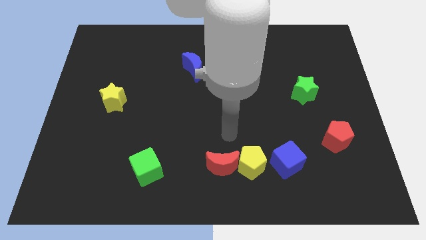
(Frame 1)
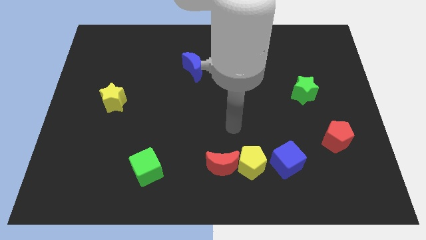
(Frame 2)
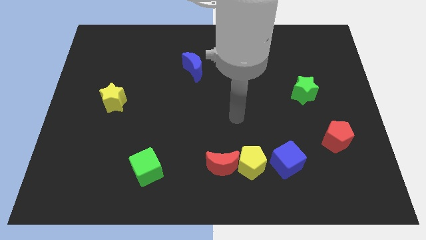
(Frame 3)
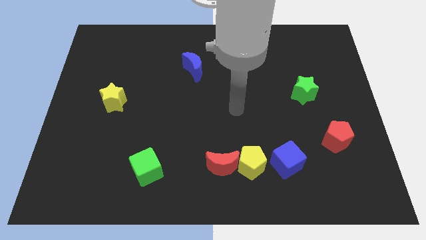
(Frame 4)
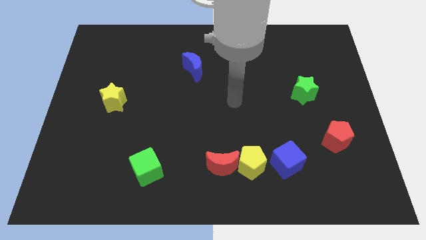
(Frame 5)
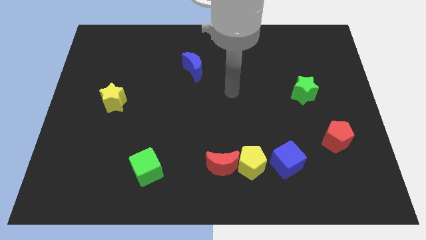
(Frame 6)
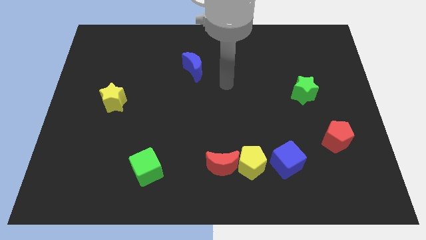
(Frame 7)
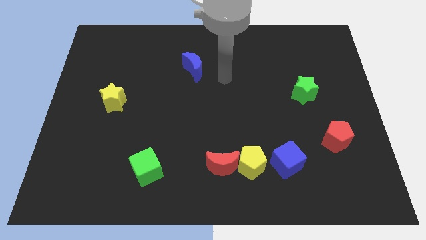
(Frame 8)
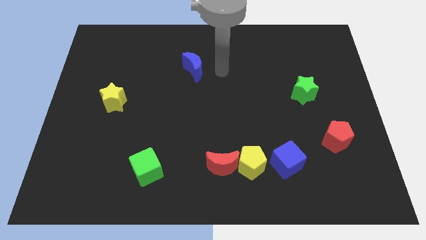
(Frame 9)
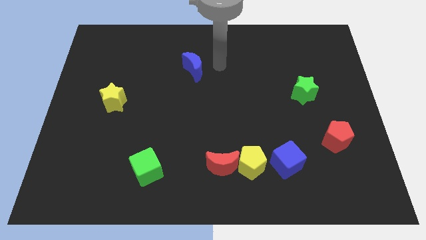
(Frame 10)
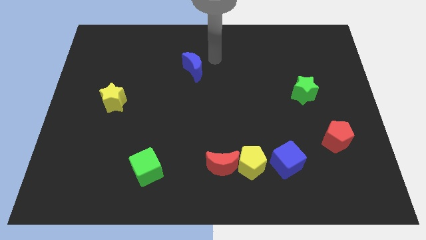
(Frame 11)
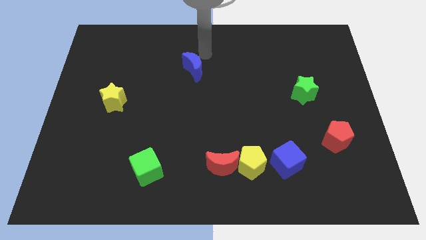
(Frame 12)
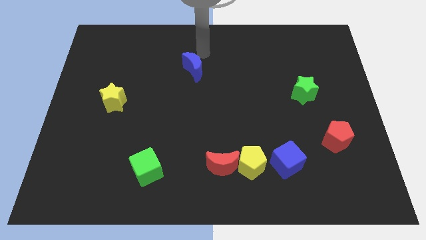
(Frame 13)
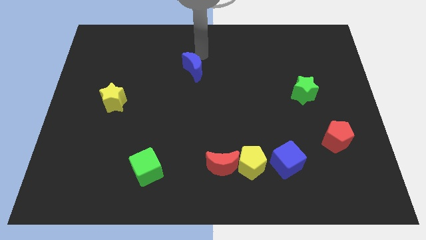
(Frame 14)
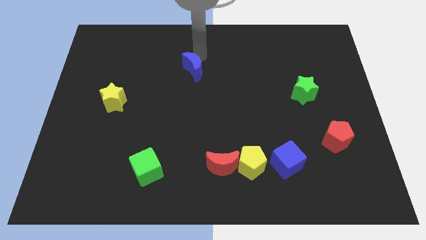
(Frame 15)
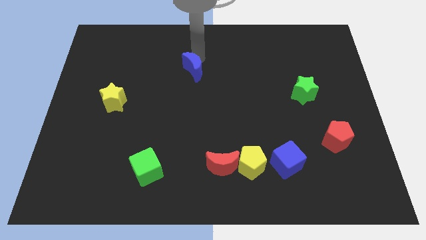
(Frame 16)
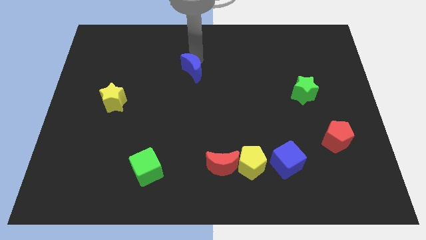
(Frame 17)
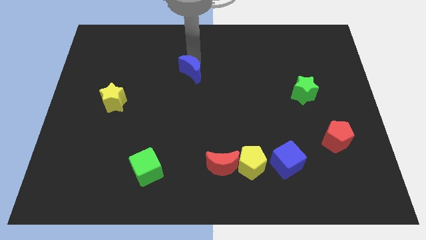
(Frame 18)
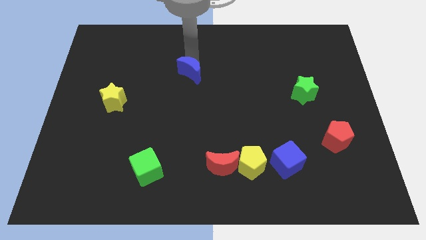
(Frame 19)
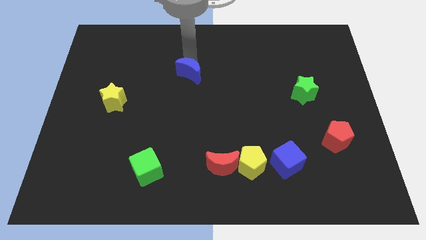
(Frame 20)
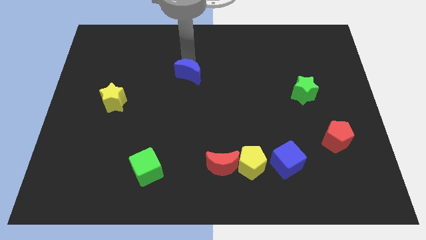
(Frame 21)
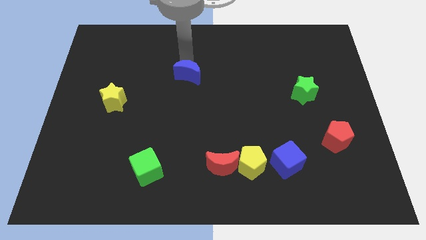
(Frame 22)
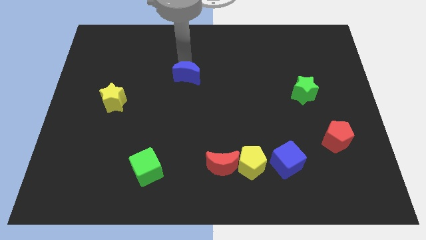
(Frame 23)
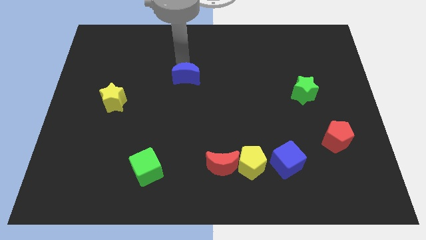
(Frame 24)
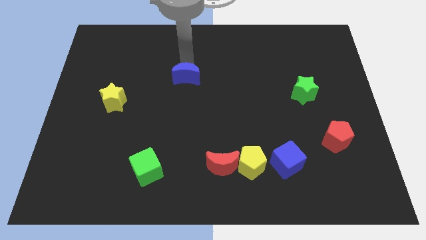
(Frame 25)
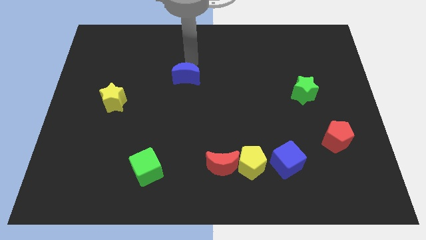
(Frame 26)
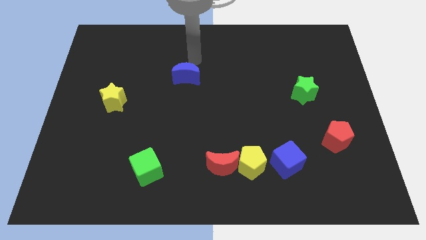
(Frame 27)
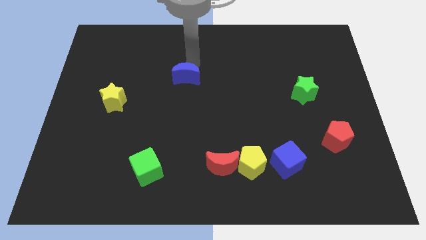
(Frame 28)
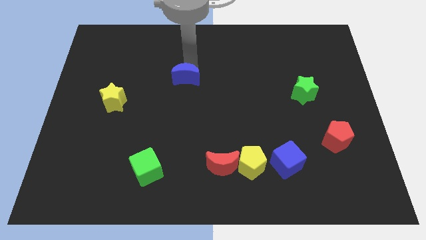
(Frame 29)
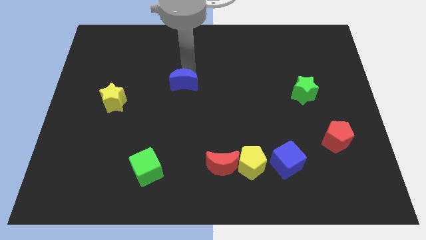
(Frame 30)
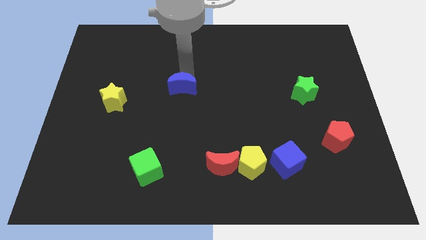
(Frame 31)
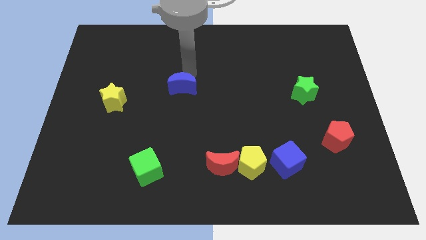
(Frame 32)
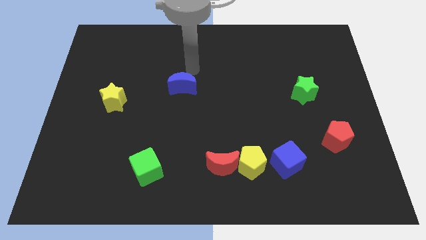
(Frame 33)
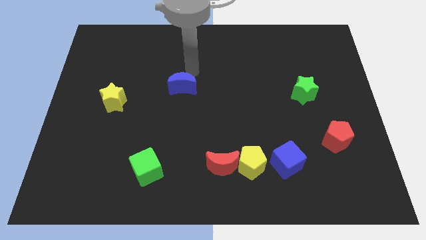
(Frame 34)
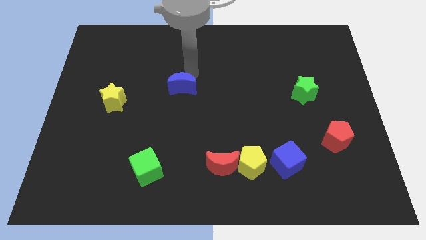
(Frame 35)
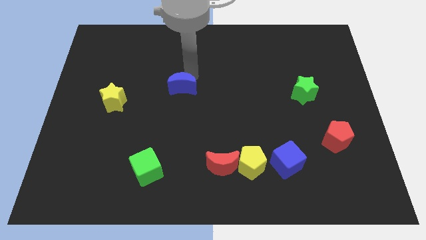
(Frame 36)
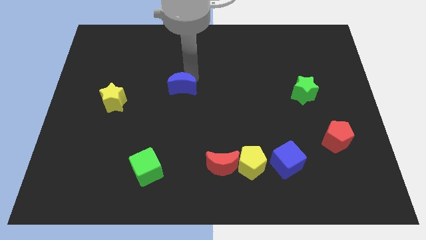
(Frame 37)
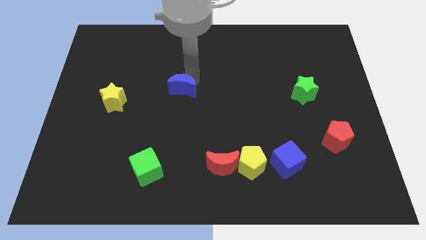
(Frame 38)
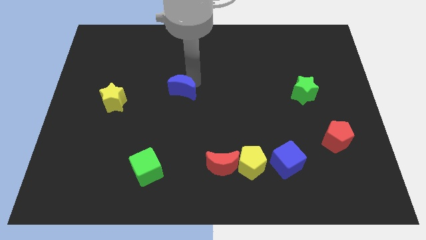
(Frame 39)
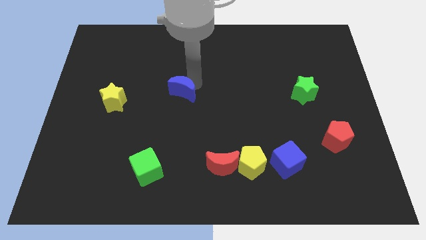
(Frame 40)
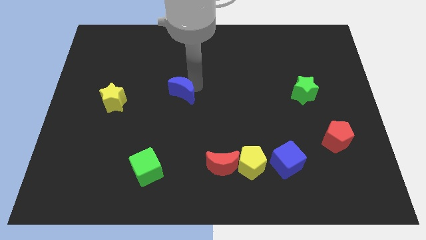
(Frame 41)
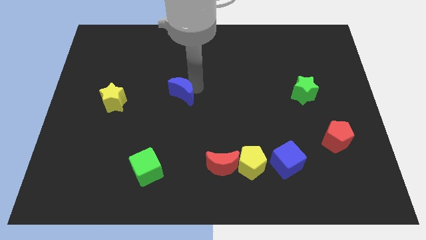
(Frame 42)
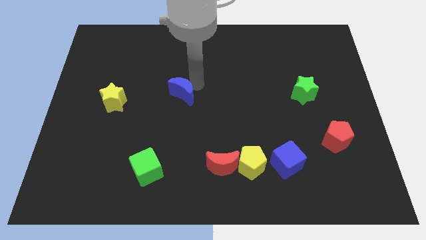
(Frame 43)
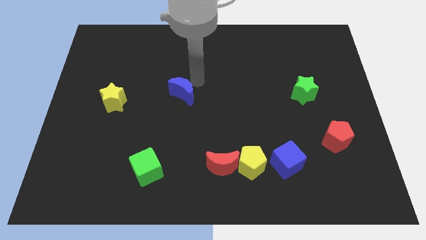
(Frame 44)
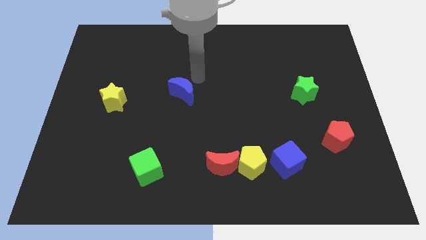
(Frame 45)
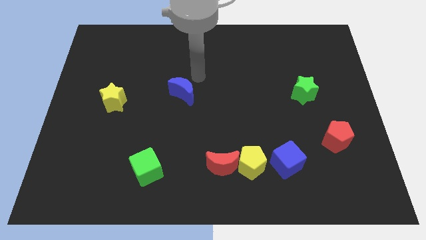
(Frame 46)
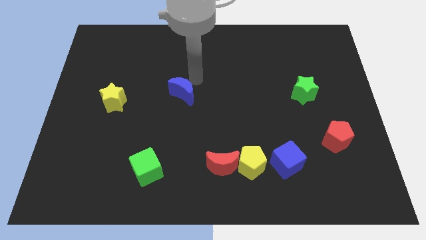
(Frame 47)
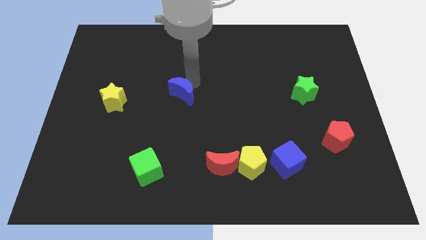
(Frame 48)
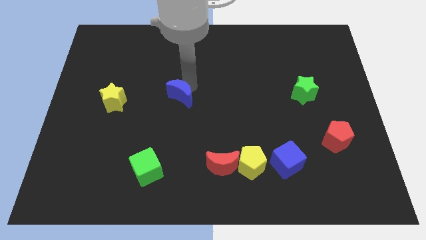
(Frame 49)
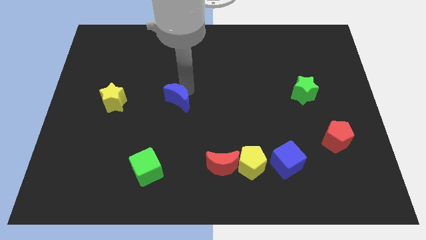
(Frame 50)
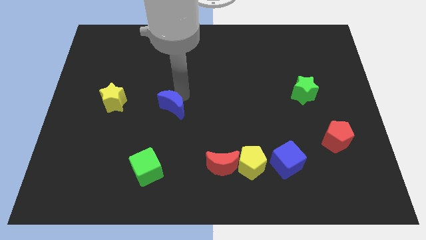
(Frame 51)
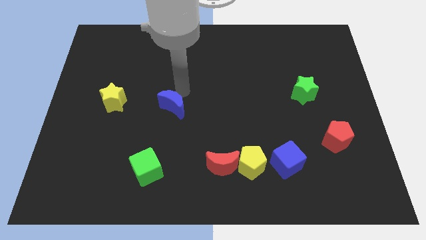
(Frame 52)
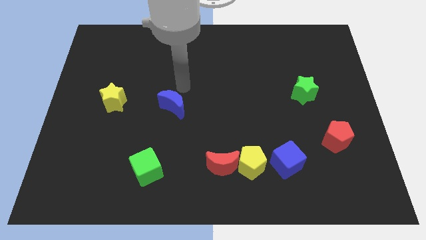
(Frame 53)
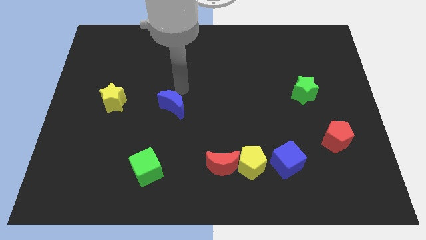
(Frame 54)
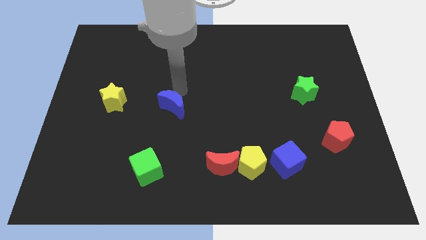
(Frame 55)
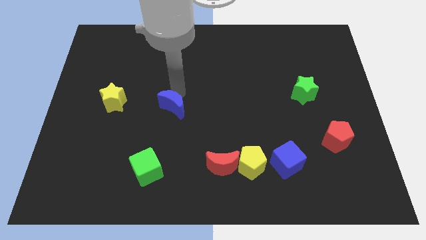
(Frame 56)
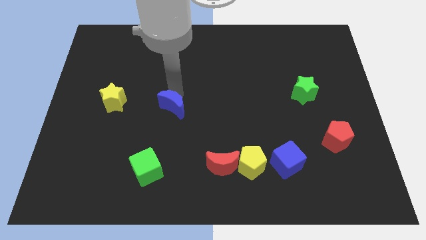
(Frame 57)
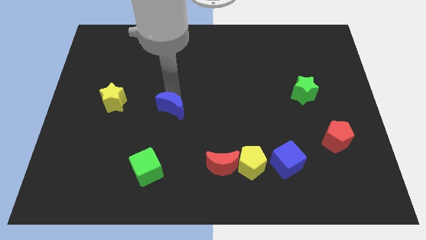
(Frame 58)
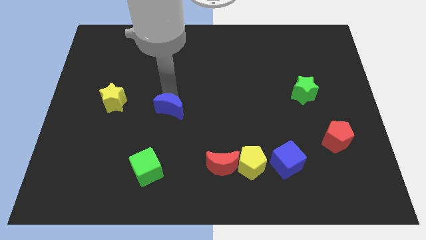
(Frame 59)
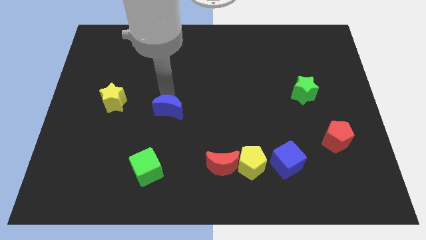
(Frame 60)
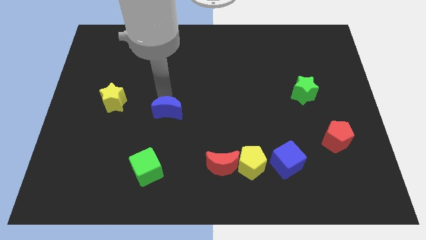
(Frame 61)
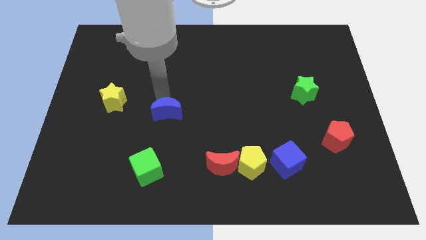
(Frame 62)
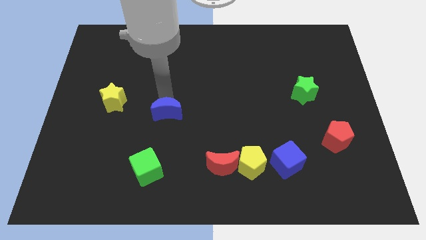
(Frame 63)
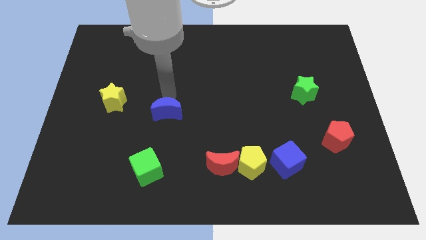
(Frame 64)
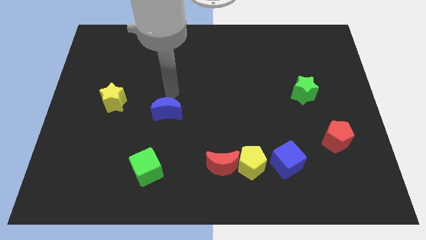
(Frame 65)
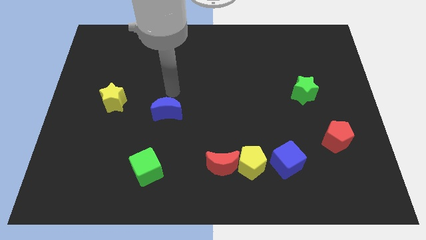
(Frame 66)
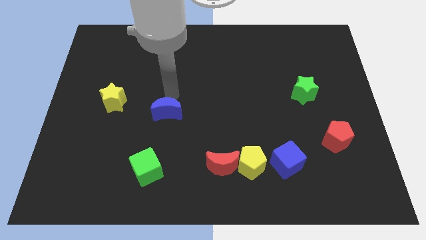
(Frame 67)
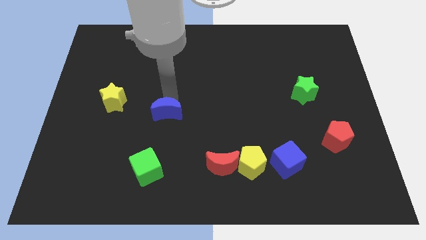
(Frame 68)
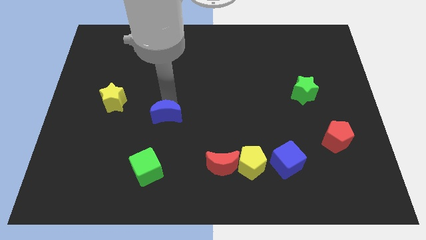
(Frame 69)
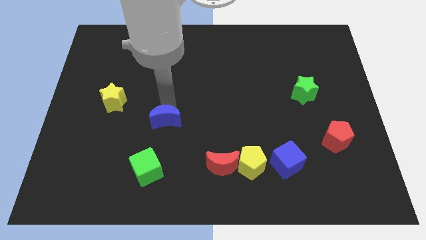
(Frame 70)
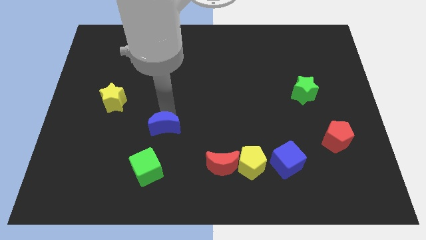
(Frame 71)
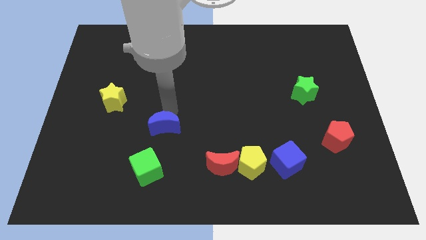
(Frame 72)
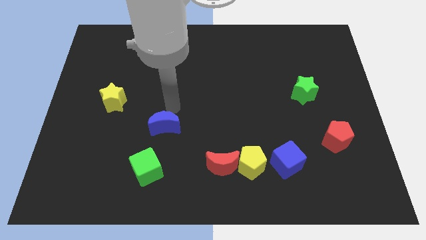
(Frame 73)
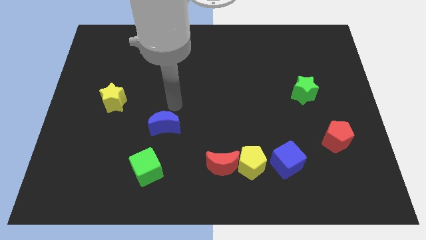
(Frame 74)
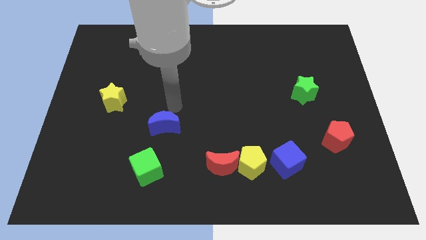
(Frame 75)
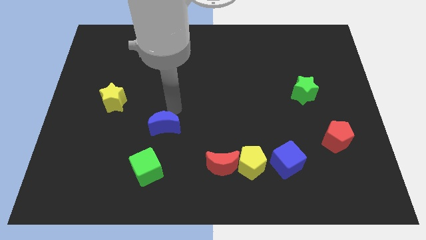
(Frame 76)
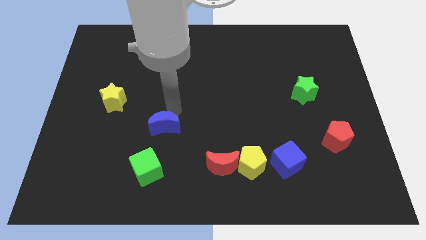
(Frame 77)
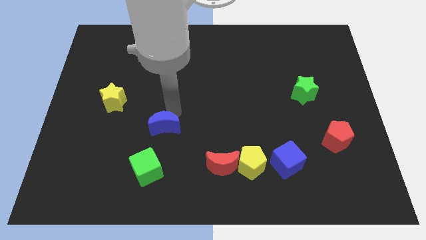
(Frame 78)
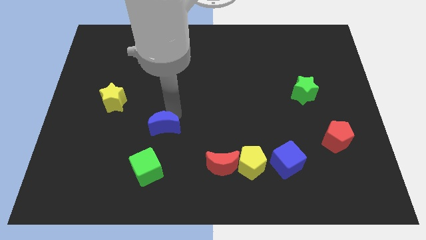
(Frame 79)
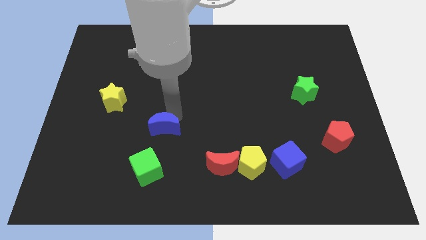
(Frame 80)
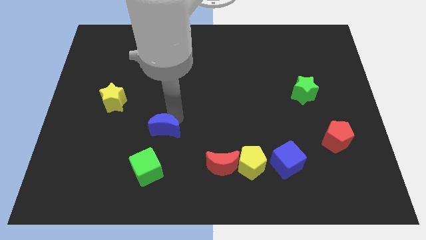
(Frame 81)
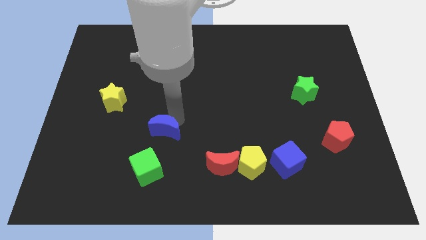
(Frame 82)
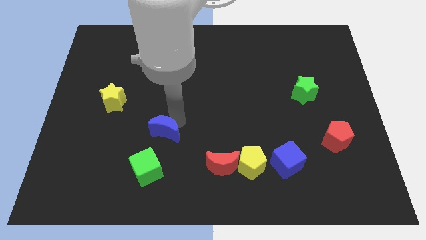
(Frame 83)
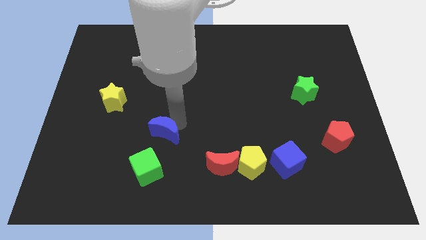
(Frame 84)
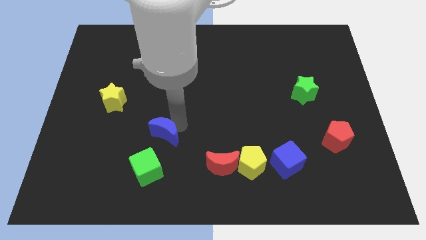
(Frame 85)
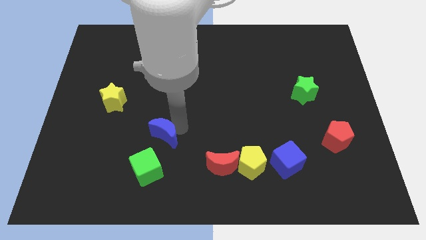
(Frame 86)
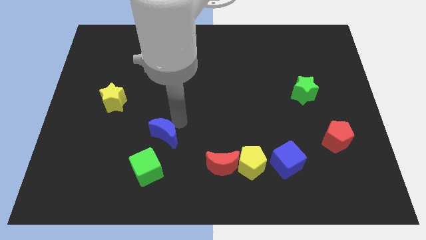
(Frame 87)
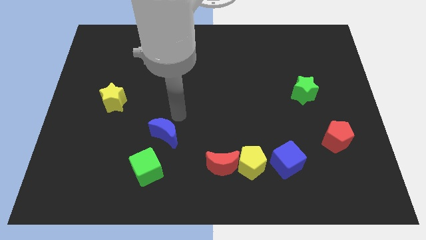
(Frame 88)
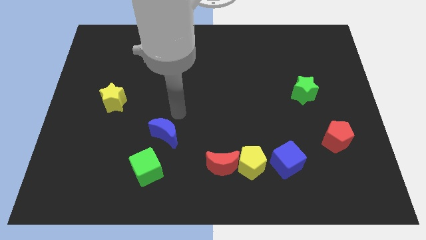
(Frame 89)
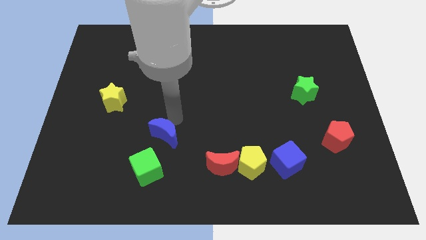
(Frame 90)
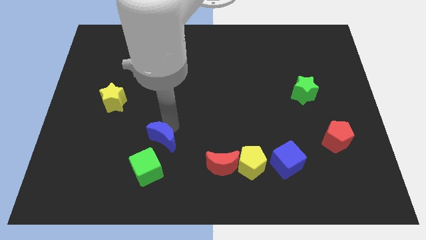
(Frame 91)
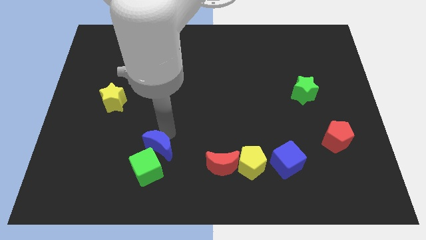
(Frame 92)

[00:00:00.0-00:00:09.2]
push the blue moon close to the green cube
